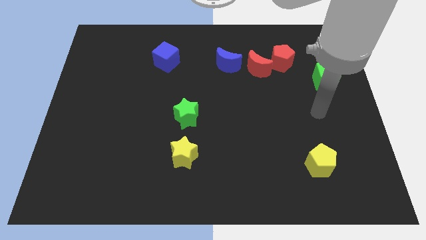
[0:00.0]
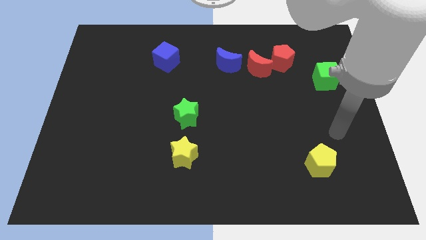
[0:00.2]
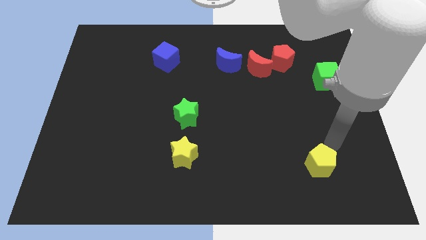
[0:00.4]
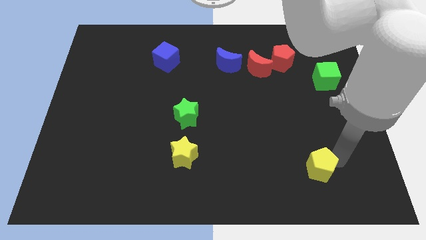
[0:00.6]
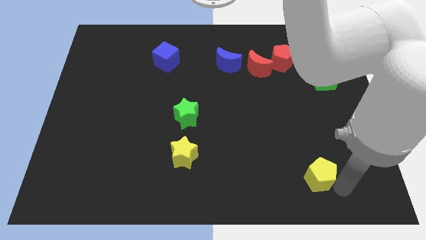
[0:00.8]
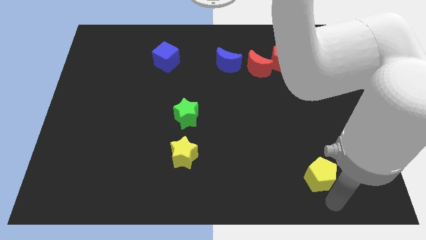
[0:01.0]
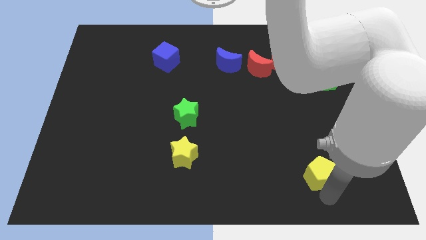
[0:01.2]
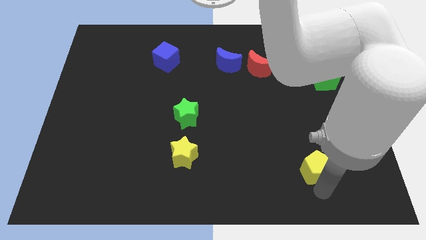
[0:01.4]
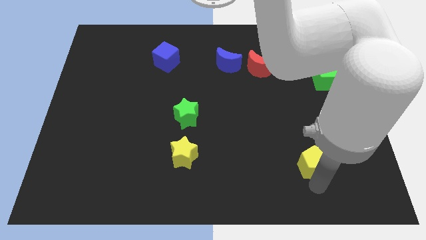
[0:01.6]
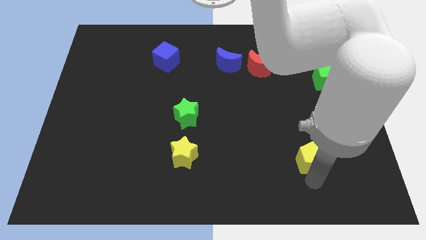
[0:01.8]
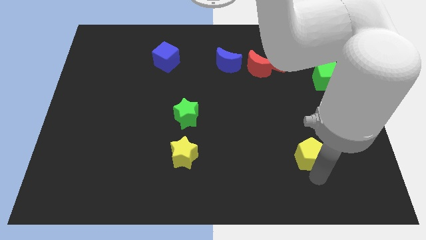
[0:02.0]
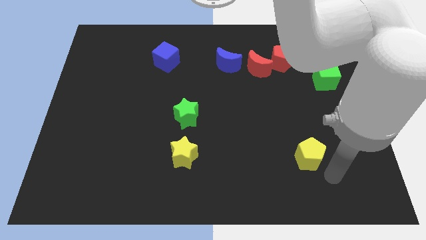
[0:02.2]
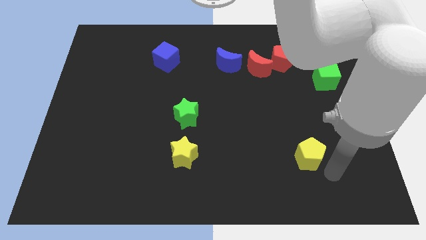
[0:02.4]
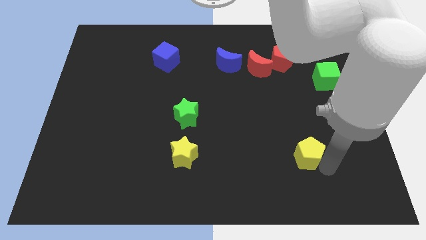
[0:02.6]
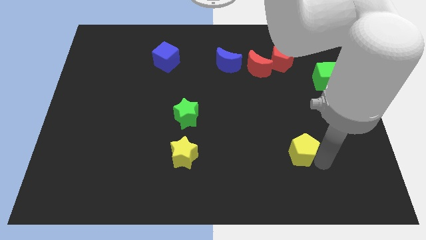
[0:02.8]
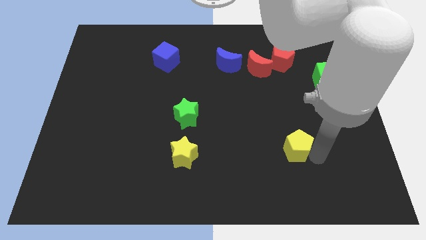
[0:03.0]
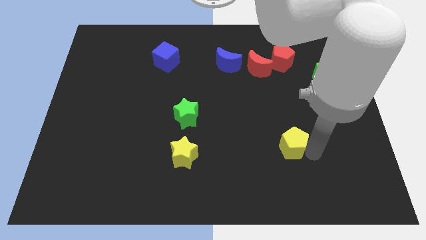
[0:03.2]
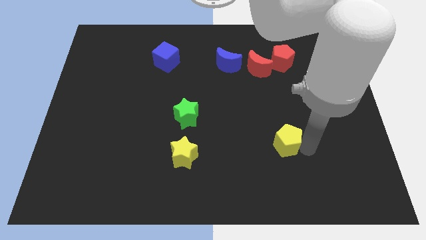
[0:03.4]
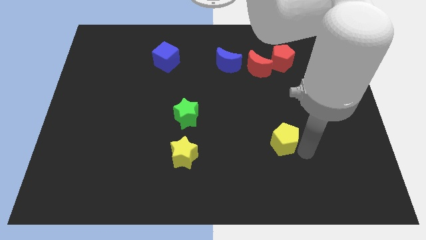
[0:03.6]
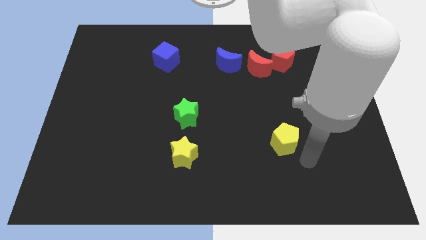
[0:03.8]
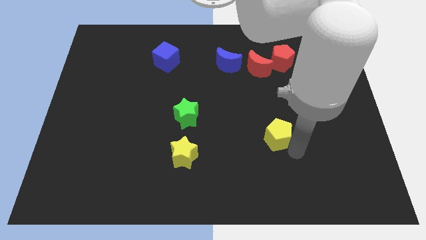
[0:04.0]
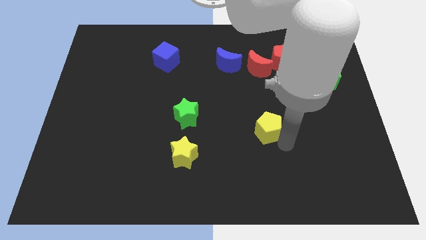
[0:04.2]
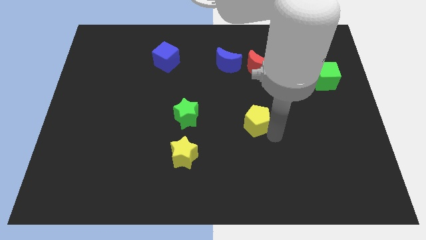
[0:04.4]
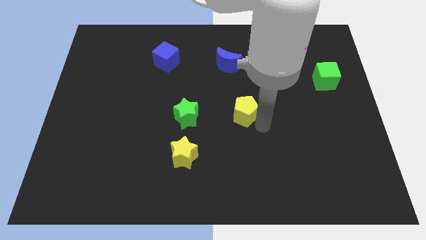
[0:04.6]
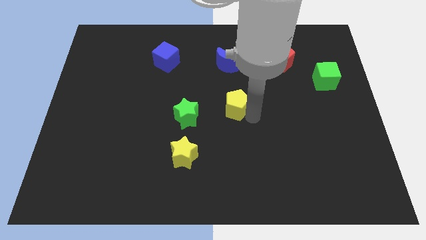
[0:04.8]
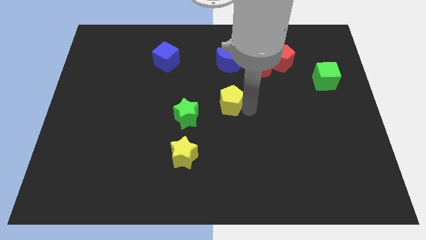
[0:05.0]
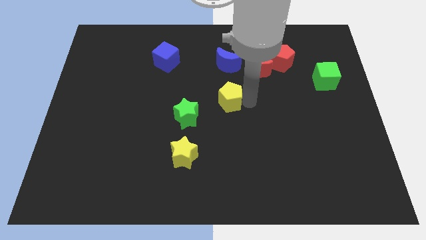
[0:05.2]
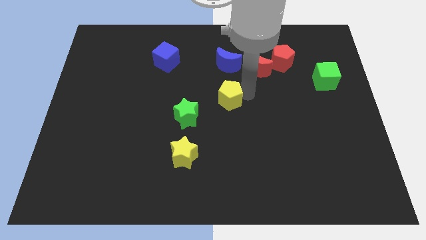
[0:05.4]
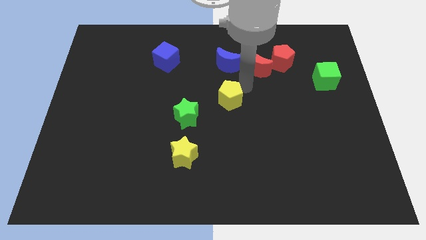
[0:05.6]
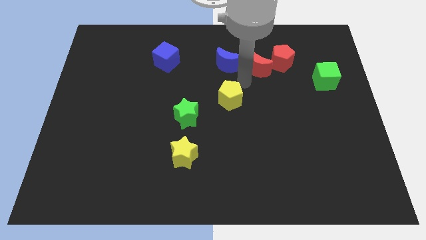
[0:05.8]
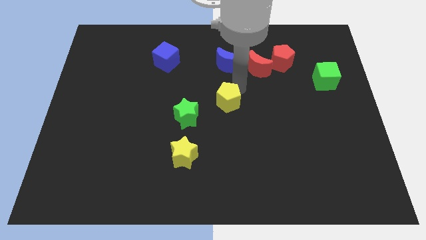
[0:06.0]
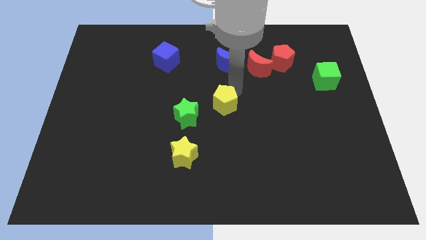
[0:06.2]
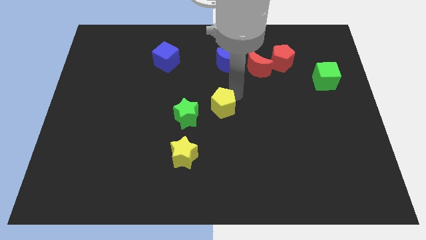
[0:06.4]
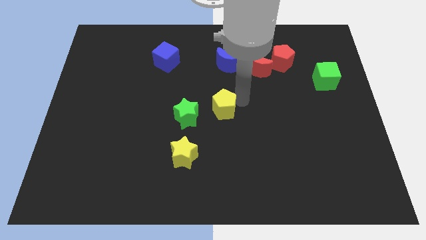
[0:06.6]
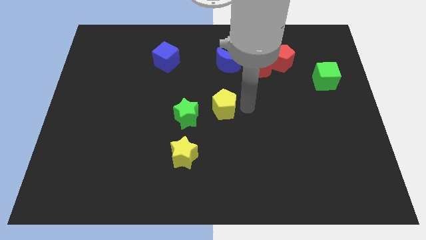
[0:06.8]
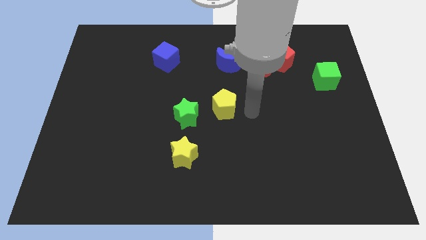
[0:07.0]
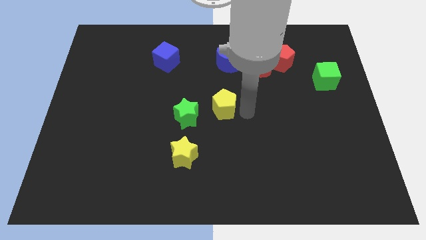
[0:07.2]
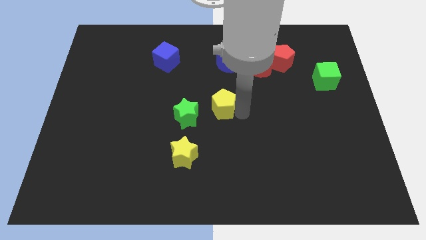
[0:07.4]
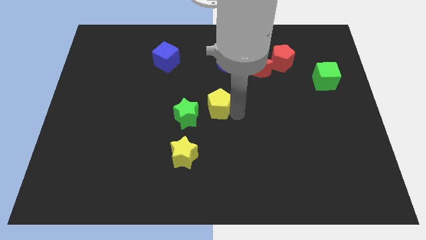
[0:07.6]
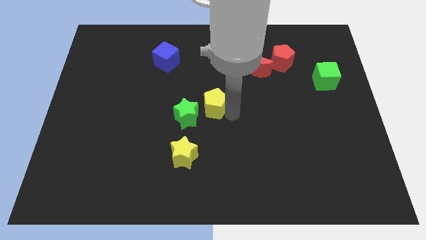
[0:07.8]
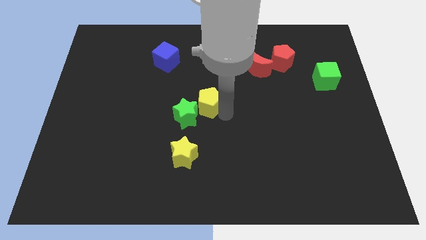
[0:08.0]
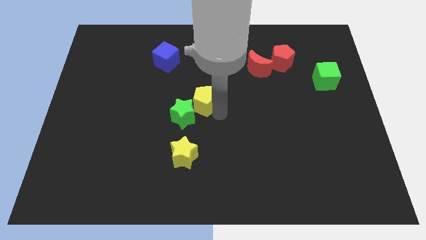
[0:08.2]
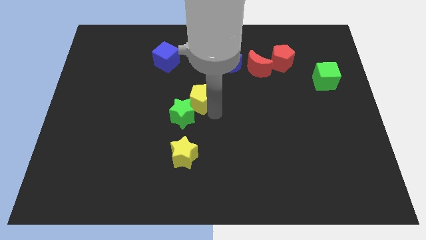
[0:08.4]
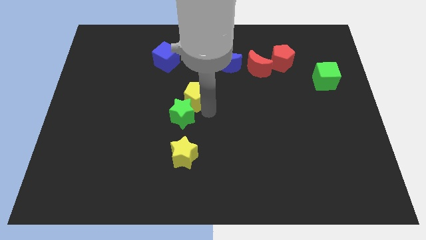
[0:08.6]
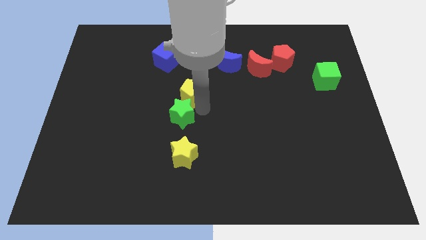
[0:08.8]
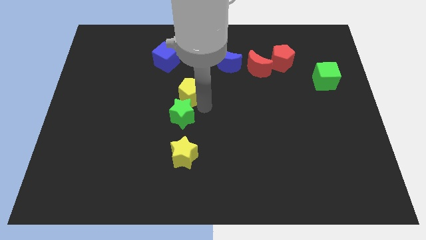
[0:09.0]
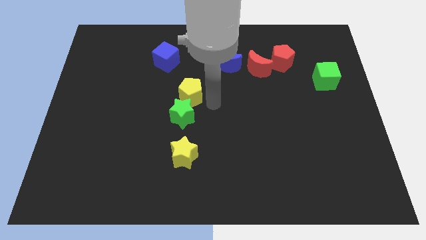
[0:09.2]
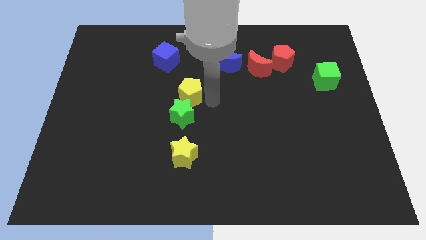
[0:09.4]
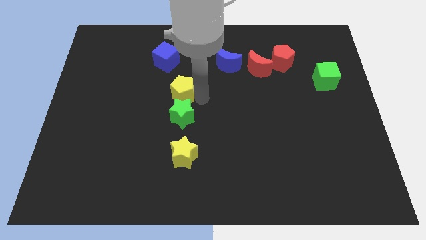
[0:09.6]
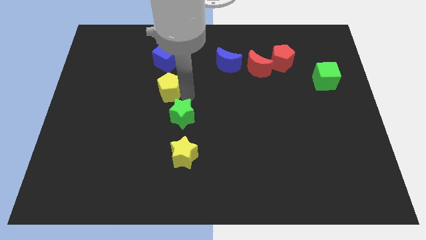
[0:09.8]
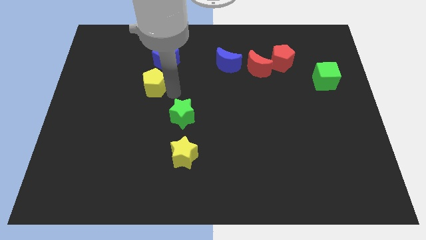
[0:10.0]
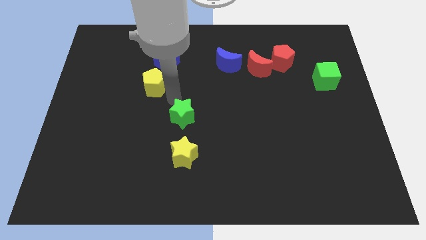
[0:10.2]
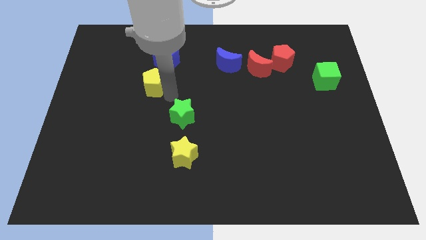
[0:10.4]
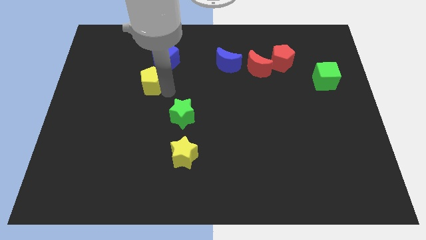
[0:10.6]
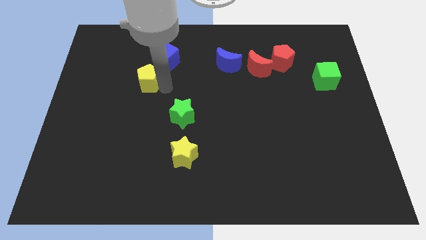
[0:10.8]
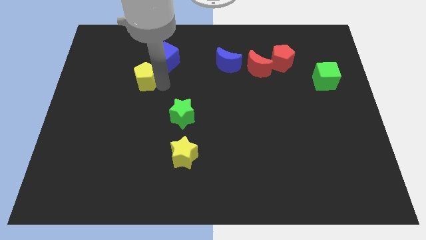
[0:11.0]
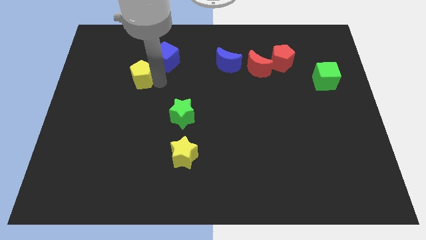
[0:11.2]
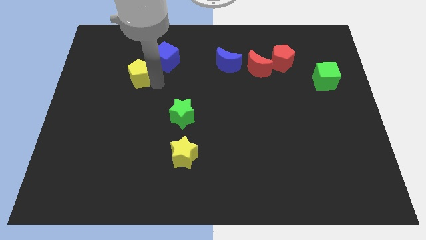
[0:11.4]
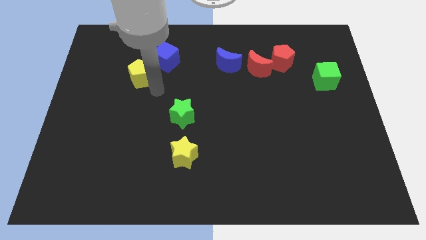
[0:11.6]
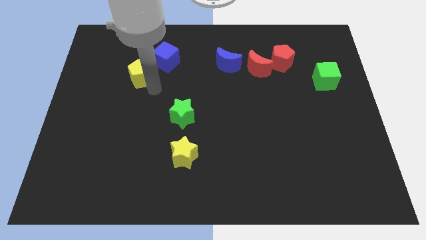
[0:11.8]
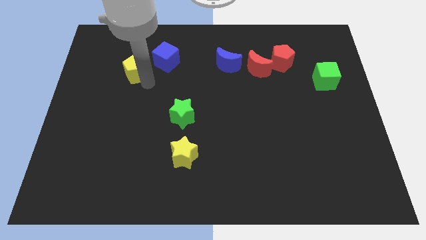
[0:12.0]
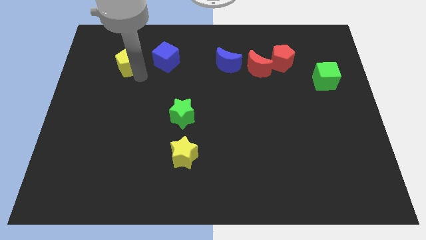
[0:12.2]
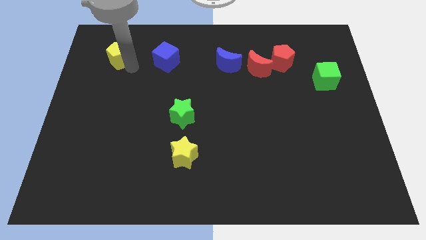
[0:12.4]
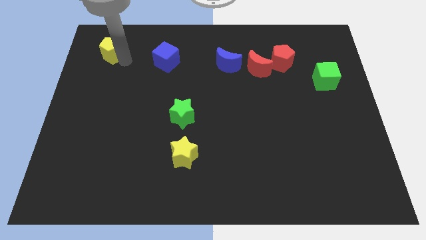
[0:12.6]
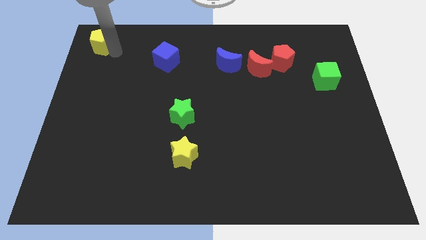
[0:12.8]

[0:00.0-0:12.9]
push the yellow pentagon to the upper left corner
